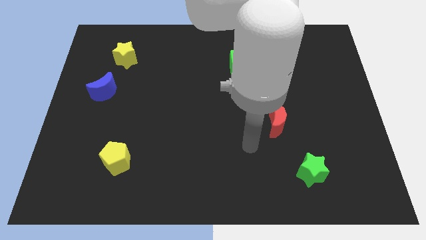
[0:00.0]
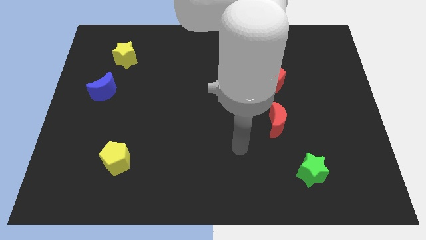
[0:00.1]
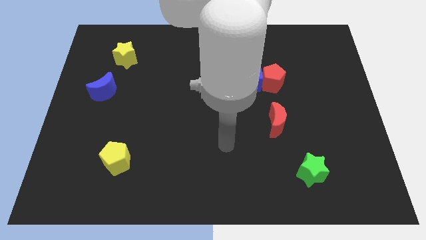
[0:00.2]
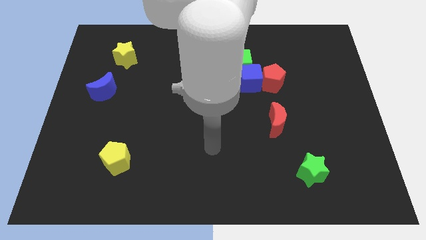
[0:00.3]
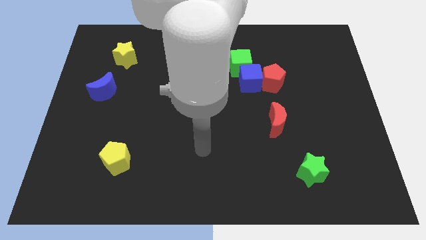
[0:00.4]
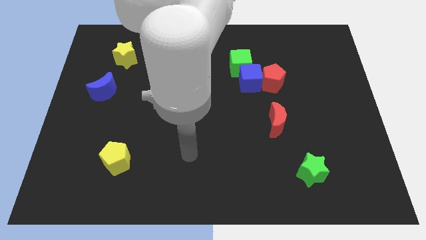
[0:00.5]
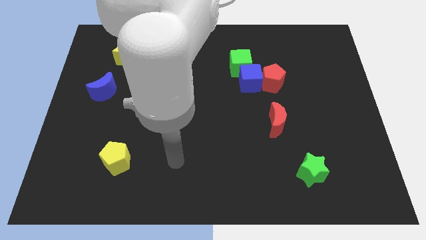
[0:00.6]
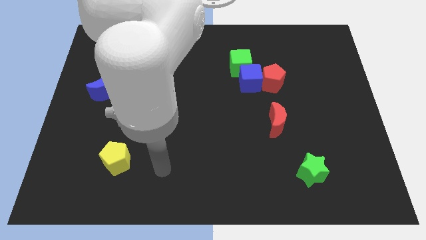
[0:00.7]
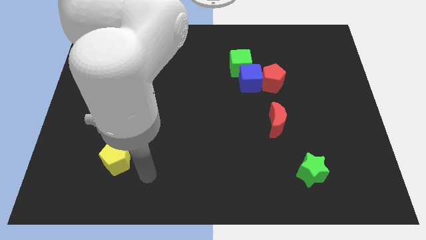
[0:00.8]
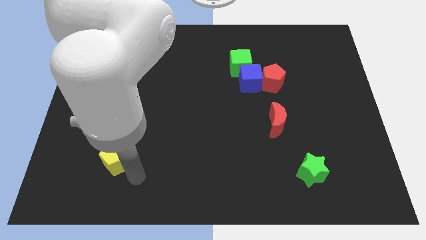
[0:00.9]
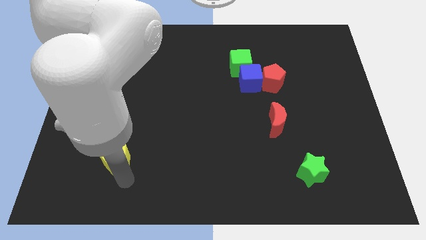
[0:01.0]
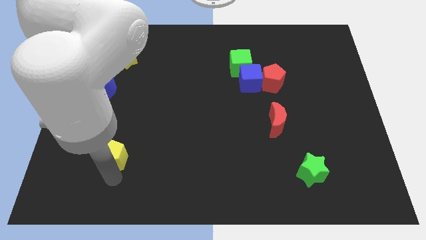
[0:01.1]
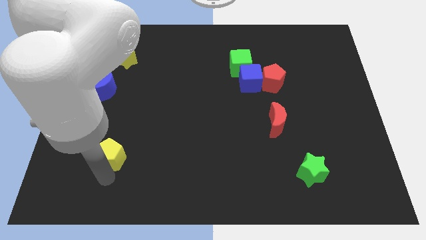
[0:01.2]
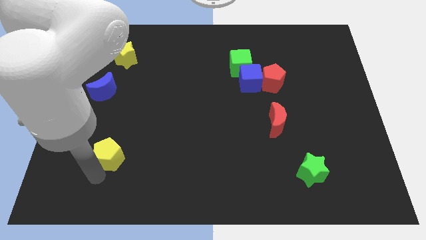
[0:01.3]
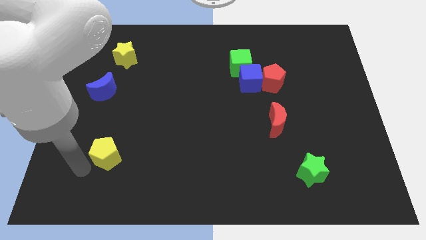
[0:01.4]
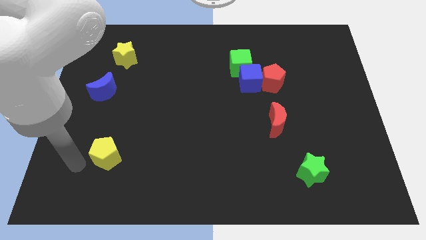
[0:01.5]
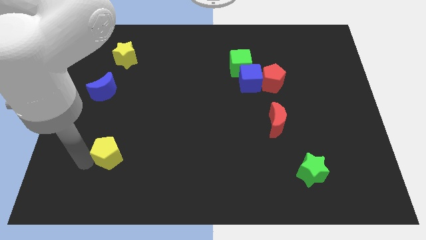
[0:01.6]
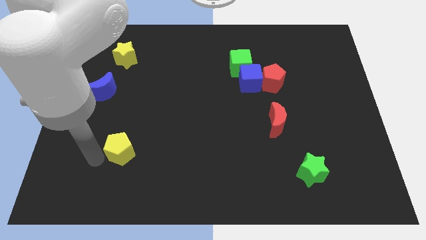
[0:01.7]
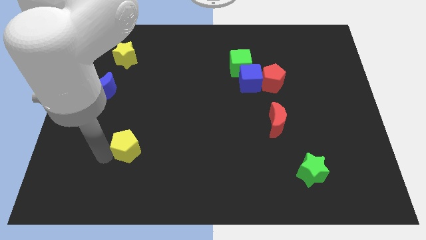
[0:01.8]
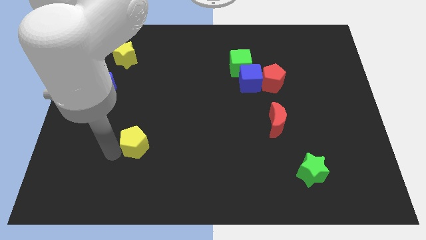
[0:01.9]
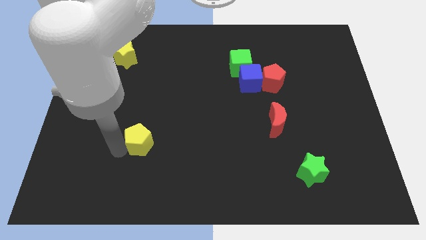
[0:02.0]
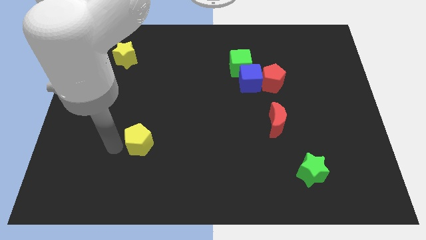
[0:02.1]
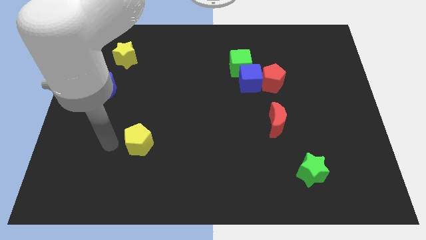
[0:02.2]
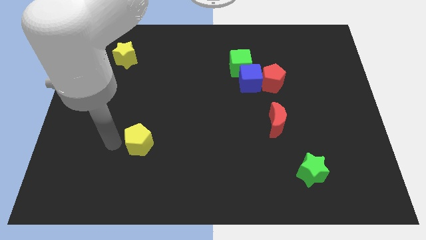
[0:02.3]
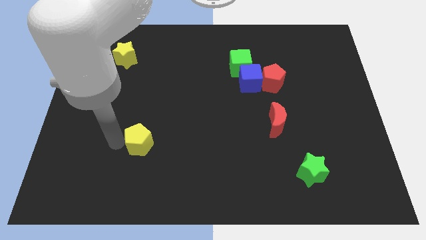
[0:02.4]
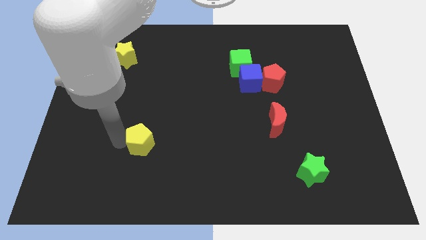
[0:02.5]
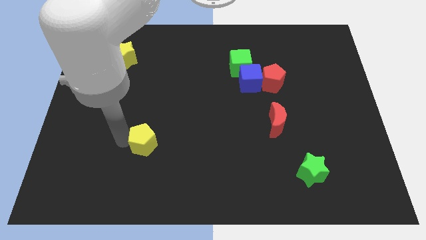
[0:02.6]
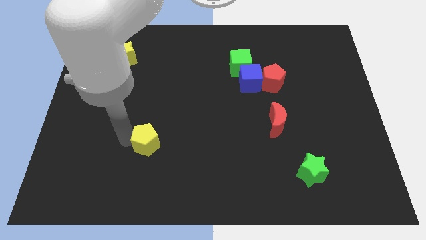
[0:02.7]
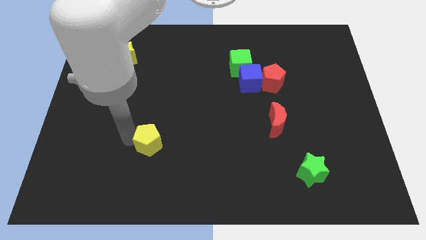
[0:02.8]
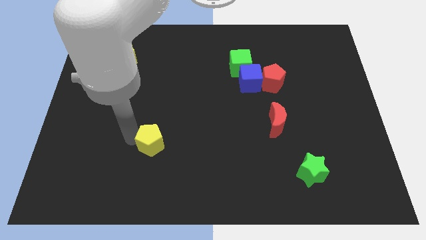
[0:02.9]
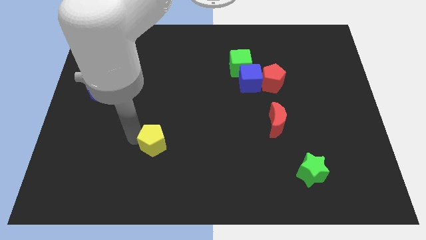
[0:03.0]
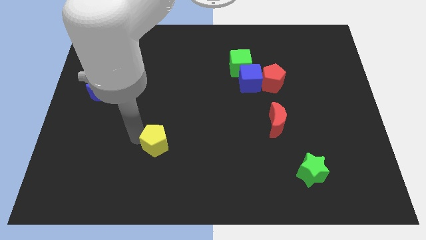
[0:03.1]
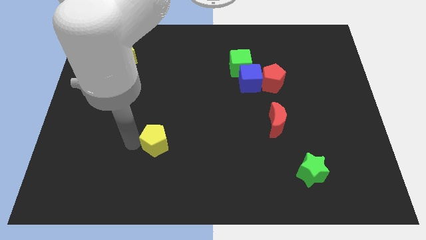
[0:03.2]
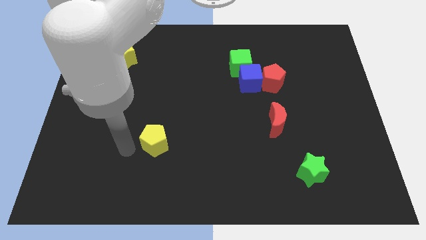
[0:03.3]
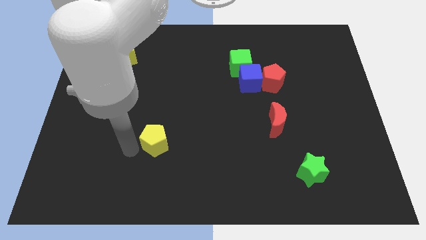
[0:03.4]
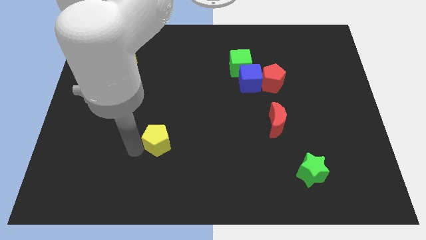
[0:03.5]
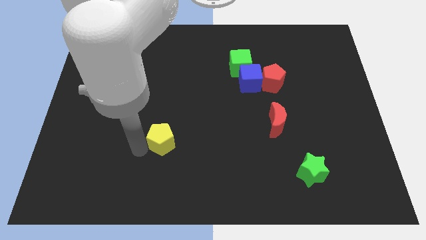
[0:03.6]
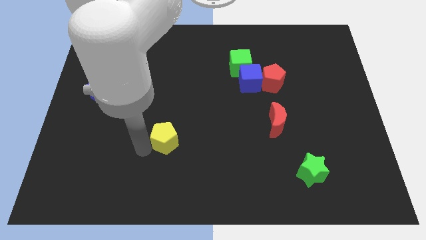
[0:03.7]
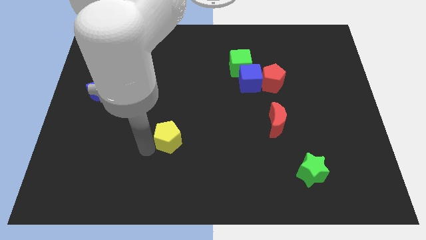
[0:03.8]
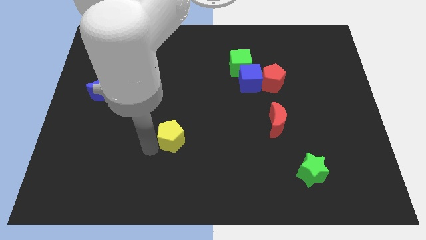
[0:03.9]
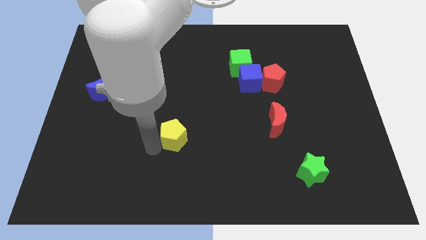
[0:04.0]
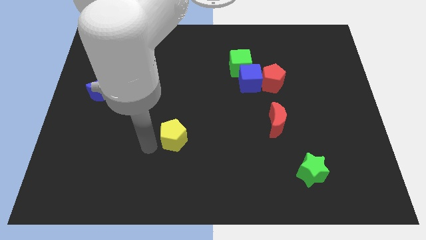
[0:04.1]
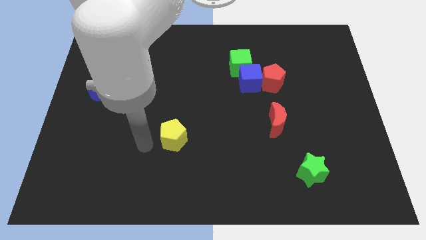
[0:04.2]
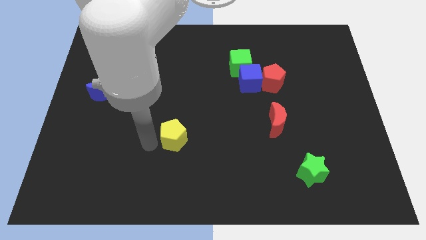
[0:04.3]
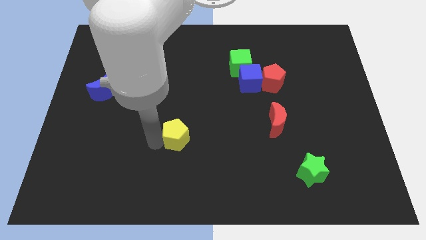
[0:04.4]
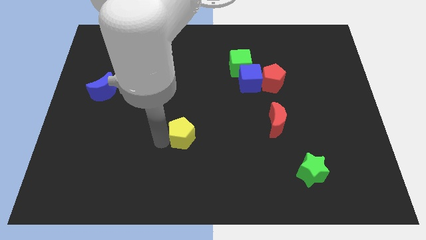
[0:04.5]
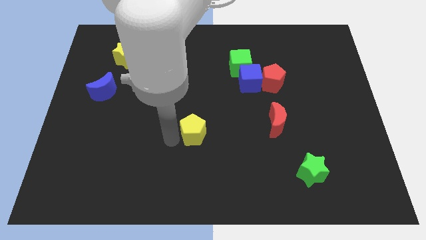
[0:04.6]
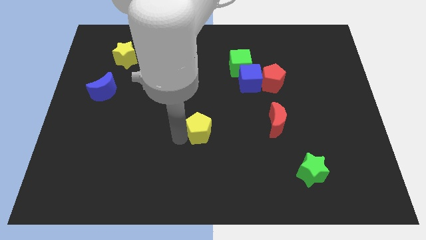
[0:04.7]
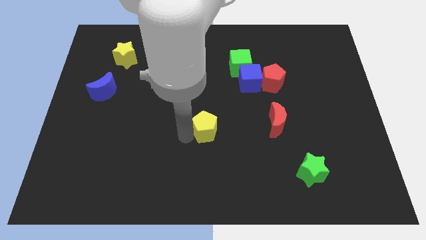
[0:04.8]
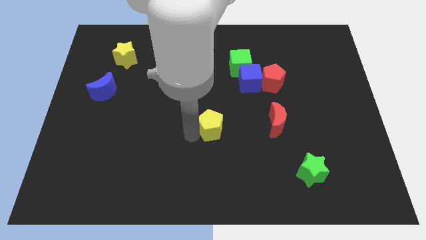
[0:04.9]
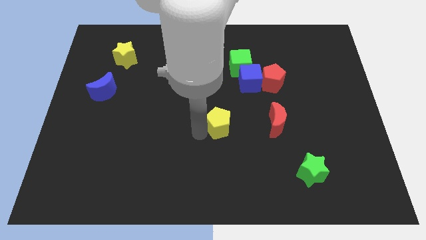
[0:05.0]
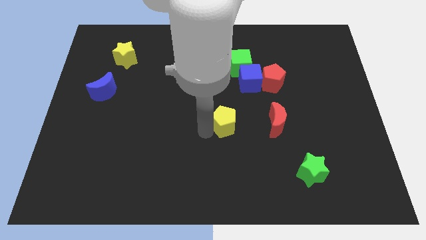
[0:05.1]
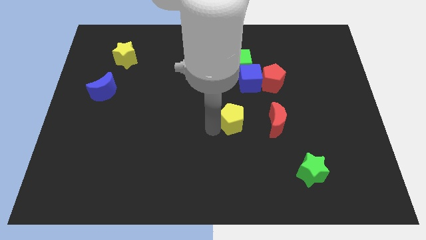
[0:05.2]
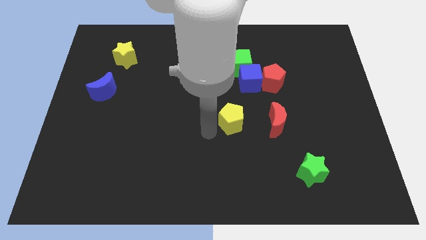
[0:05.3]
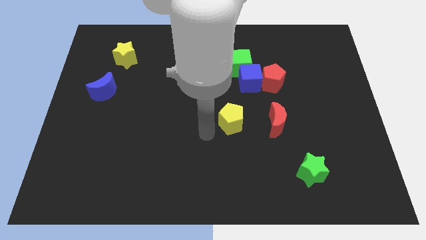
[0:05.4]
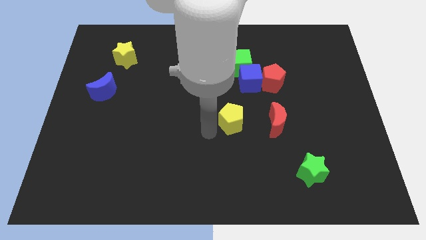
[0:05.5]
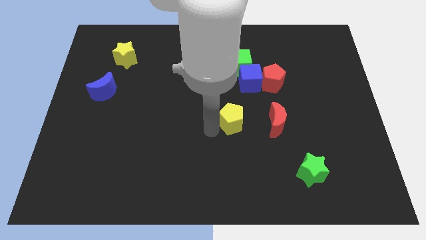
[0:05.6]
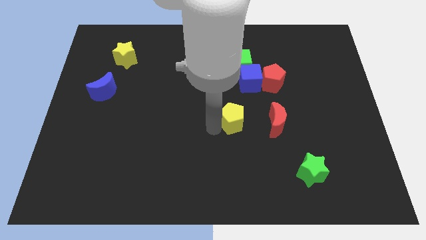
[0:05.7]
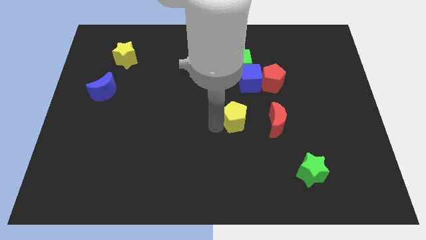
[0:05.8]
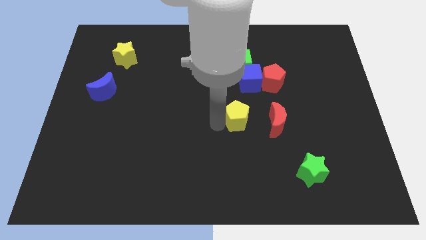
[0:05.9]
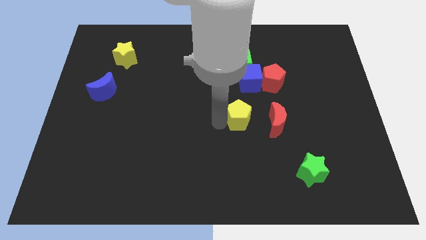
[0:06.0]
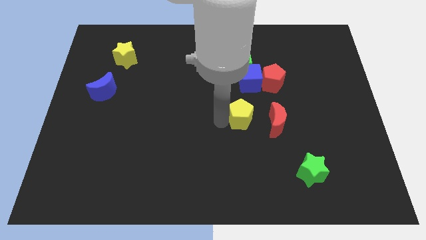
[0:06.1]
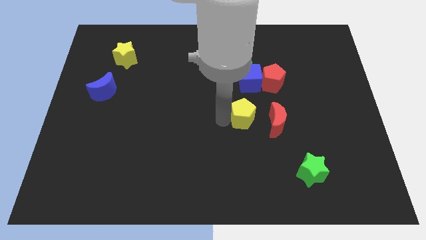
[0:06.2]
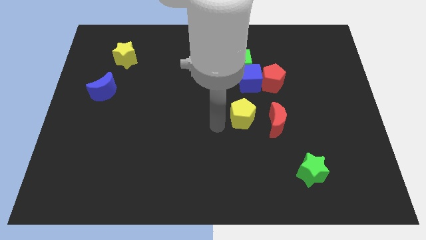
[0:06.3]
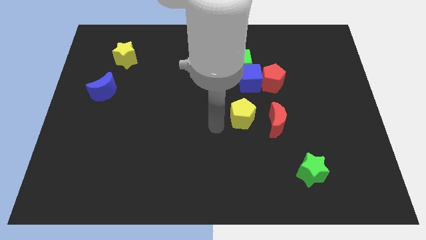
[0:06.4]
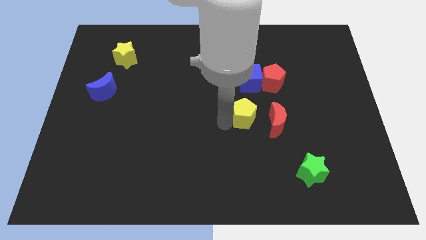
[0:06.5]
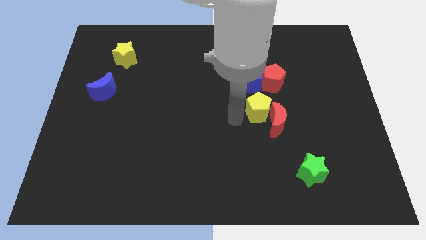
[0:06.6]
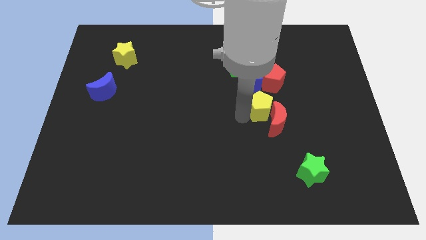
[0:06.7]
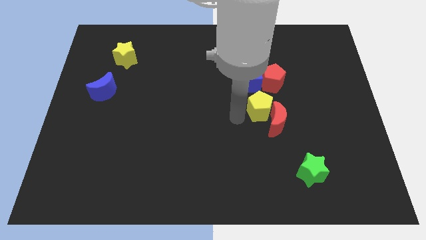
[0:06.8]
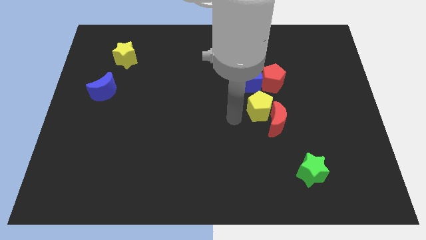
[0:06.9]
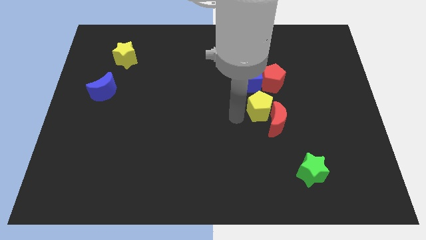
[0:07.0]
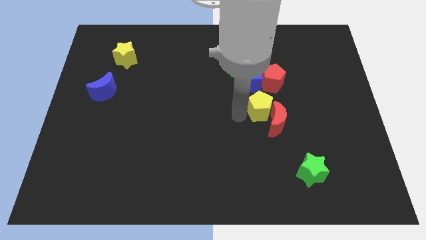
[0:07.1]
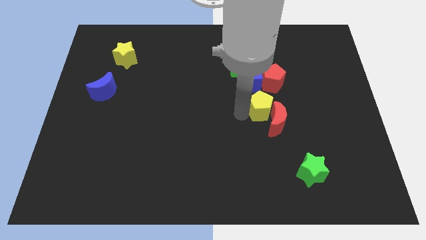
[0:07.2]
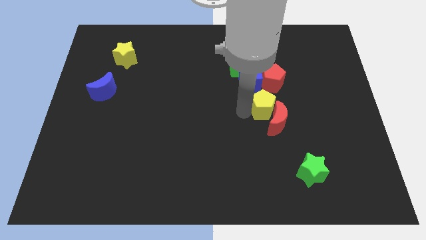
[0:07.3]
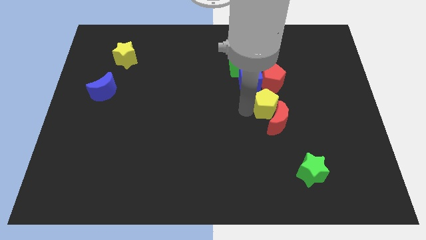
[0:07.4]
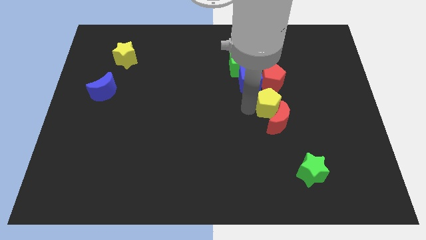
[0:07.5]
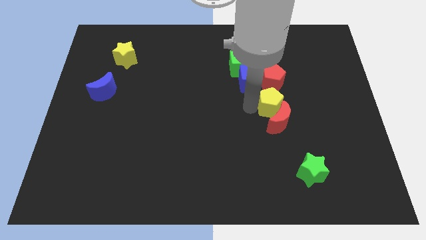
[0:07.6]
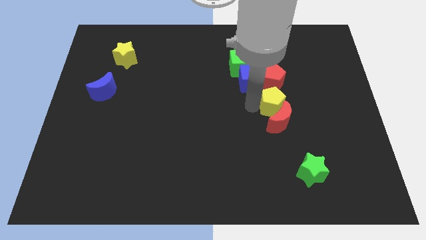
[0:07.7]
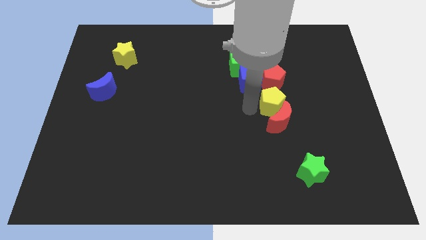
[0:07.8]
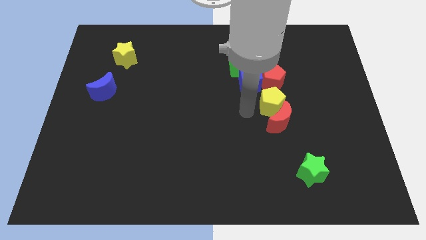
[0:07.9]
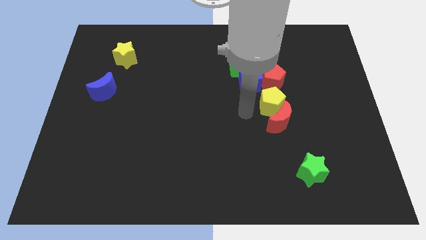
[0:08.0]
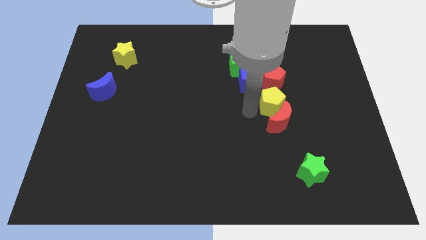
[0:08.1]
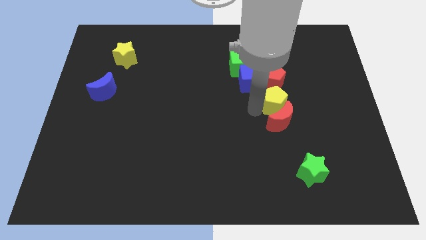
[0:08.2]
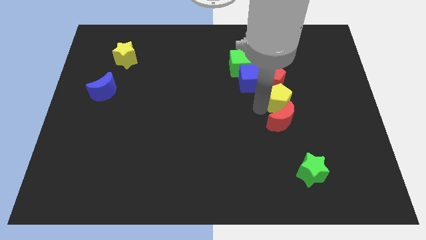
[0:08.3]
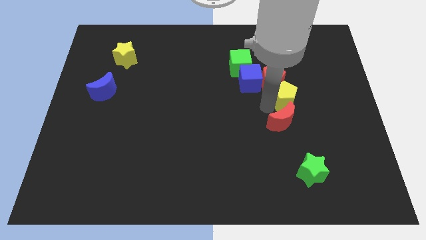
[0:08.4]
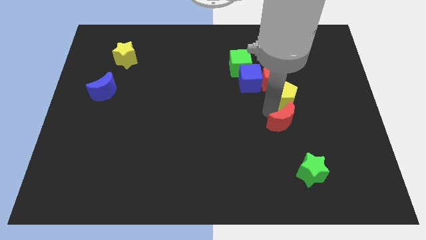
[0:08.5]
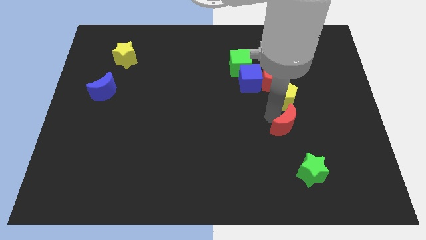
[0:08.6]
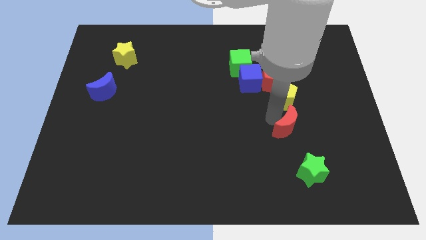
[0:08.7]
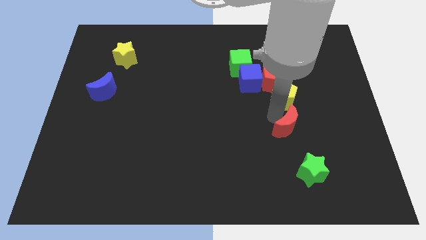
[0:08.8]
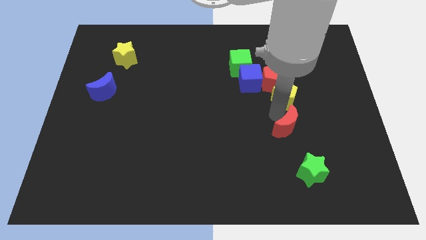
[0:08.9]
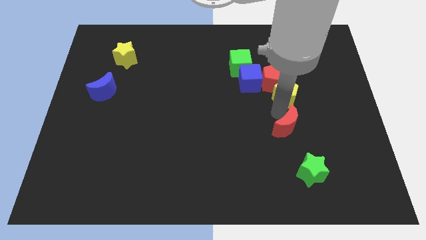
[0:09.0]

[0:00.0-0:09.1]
put the yellow pentagon to the right side of the blue cube
